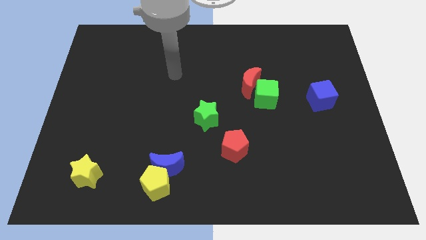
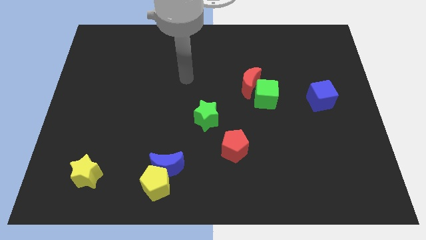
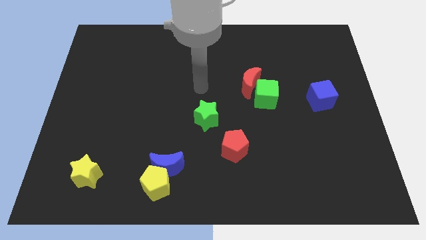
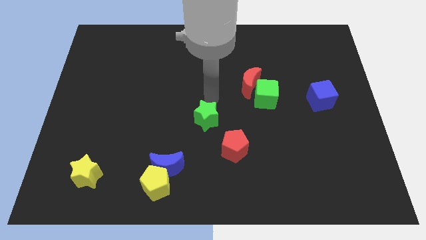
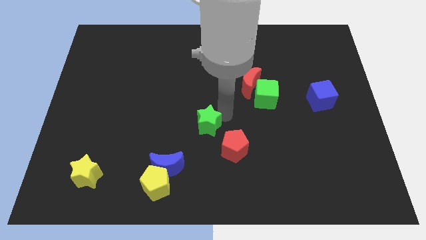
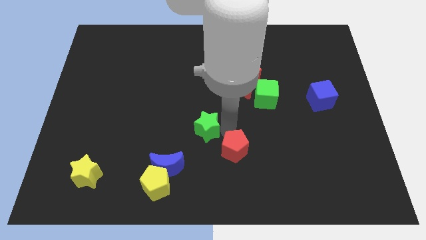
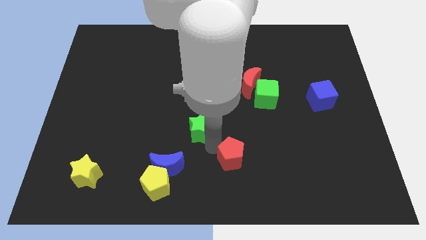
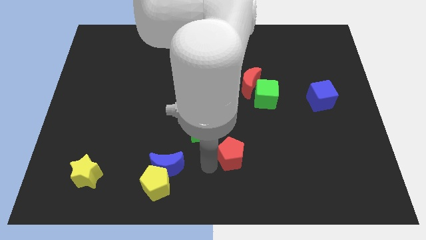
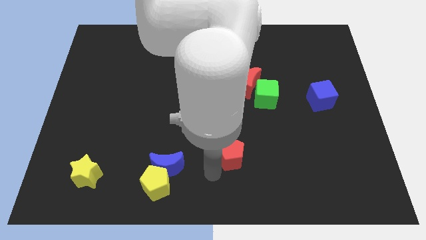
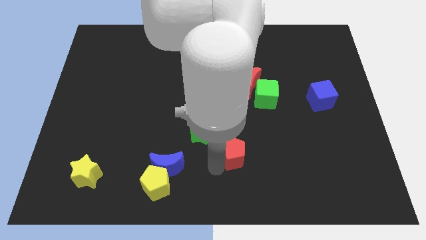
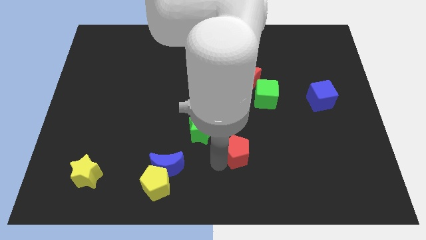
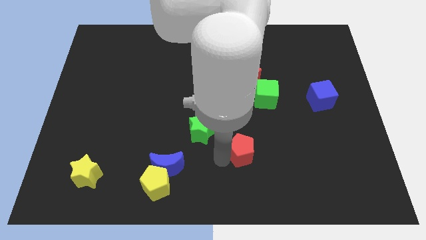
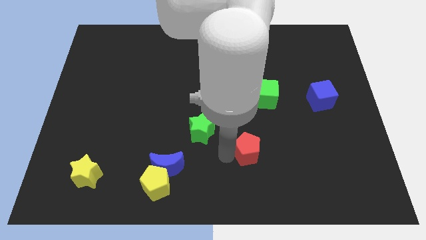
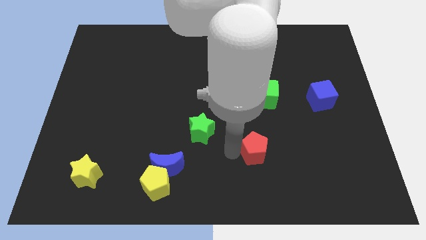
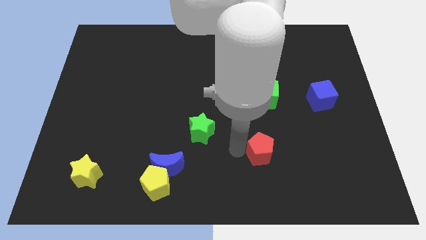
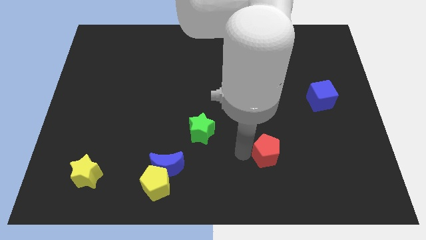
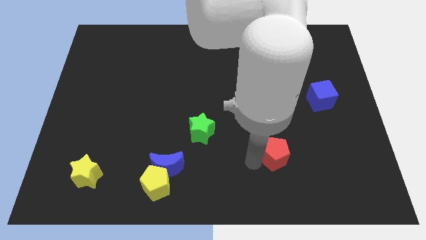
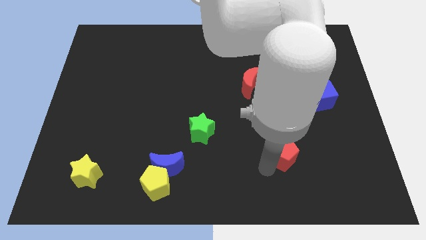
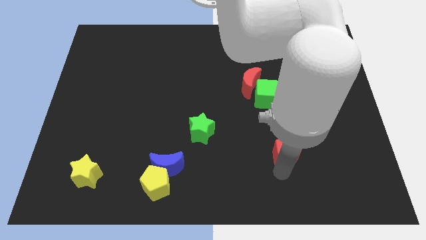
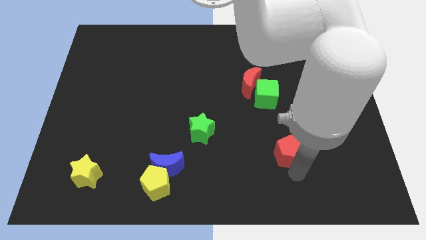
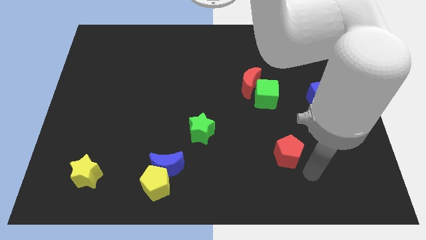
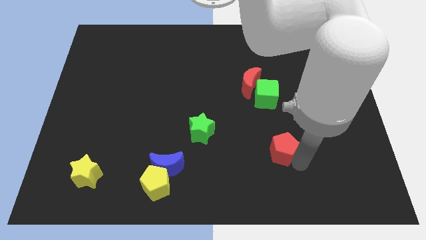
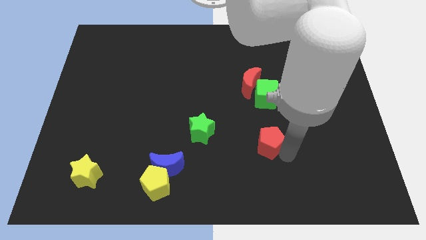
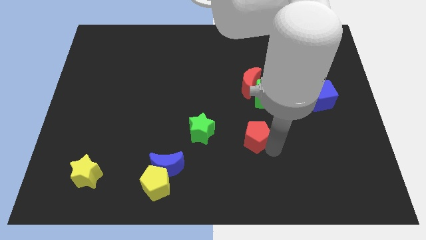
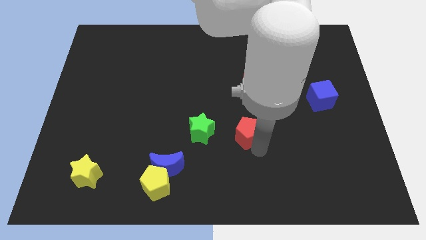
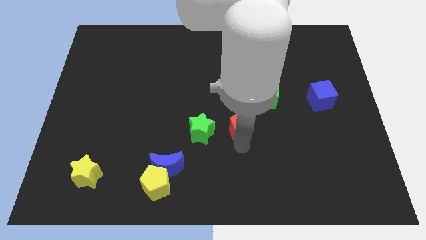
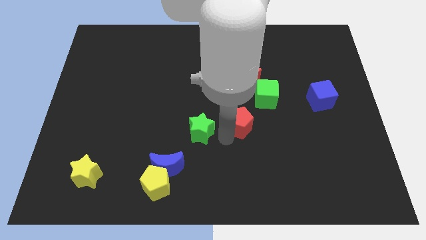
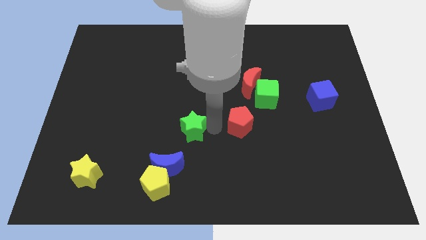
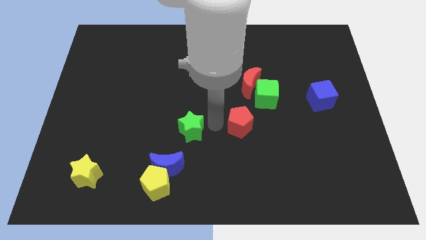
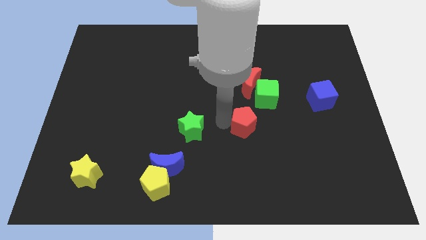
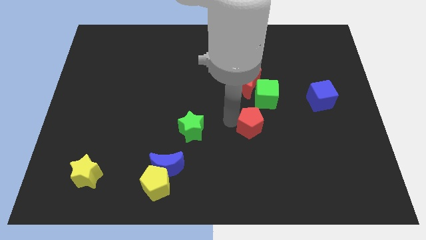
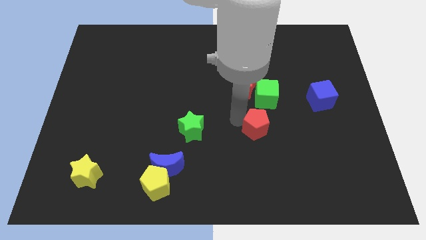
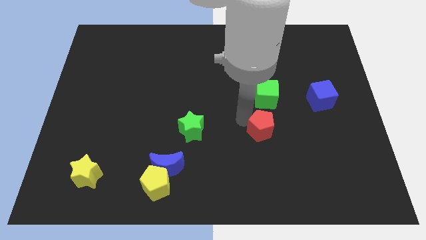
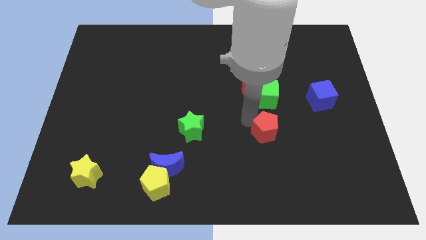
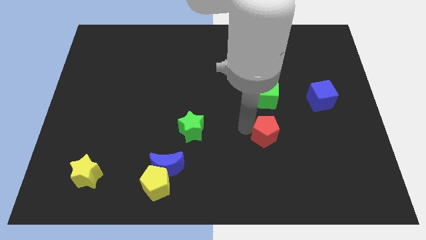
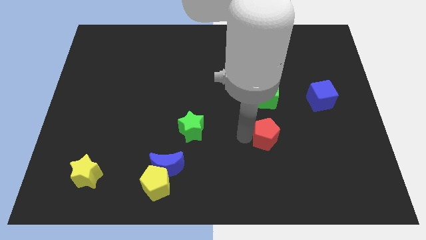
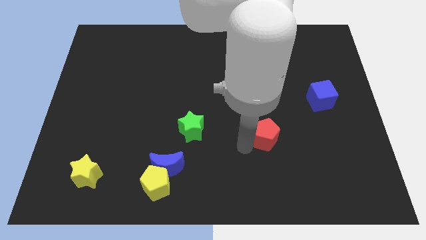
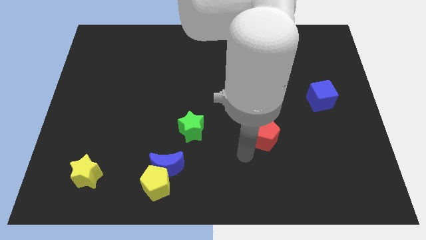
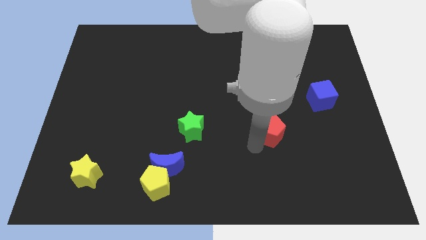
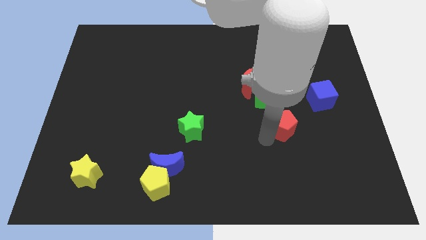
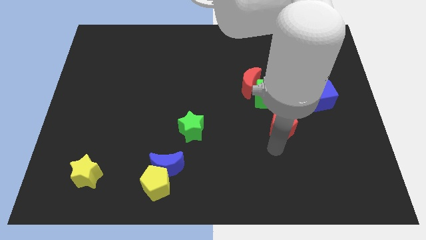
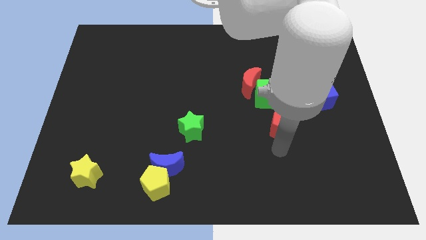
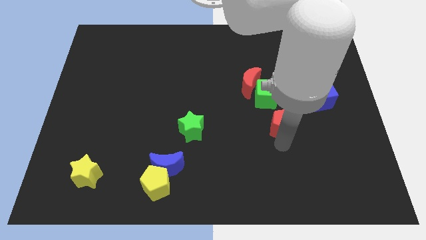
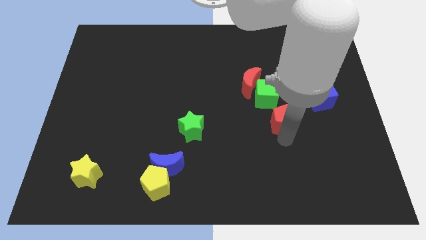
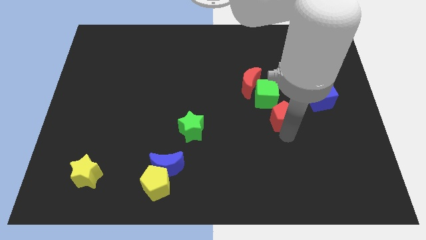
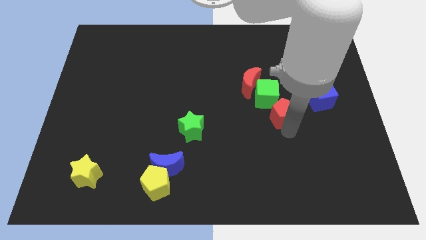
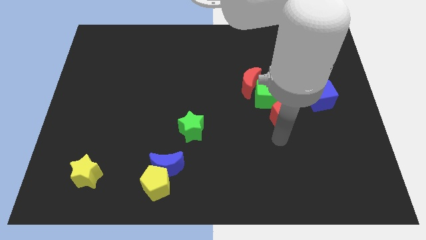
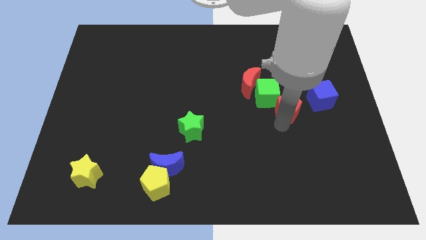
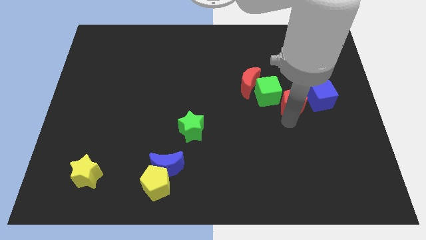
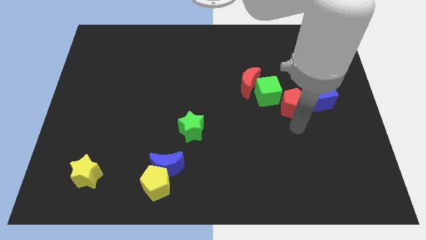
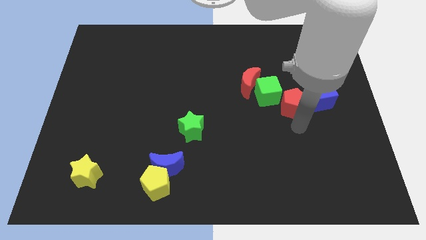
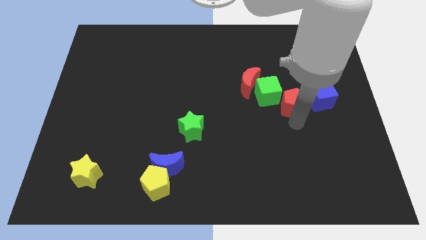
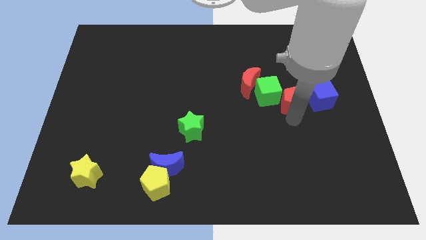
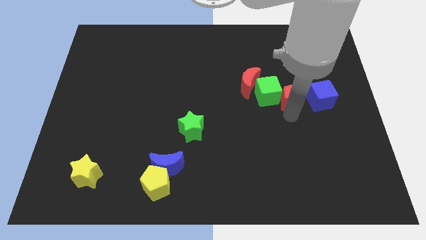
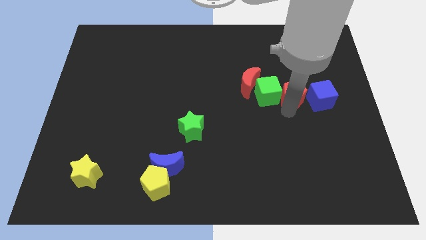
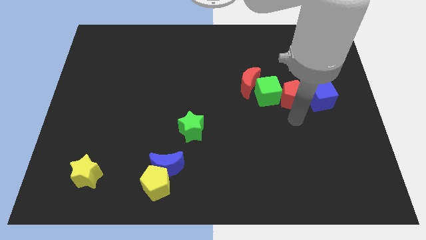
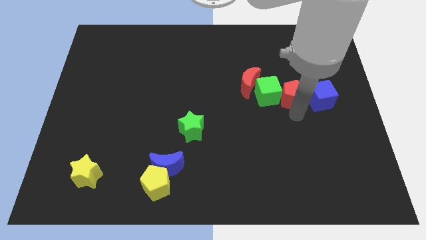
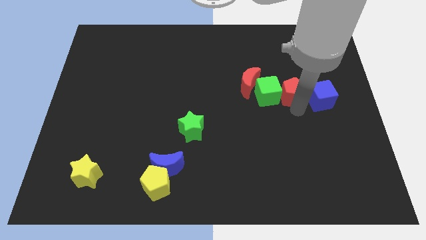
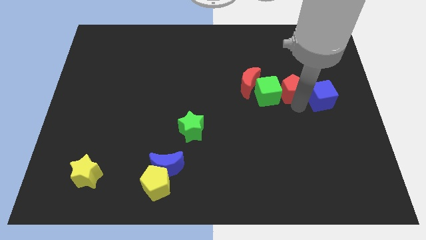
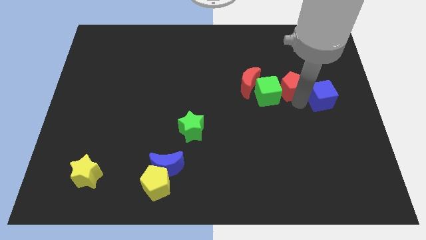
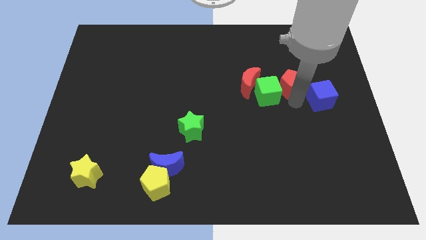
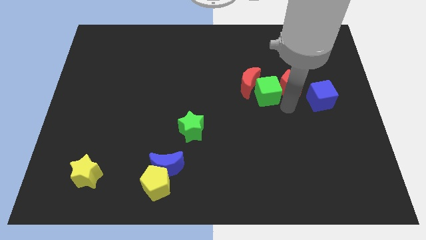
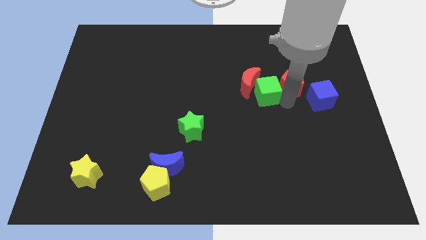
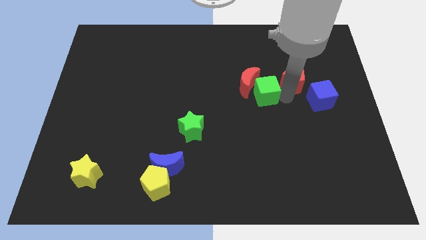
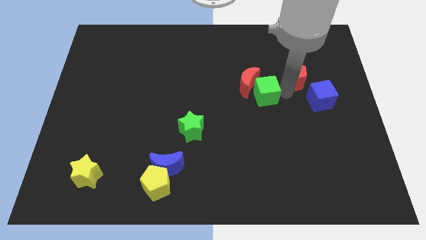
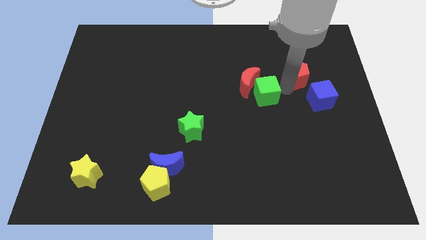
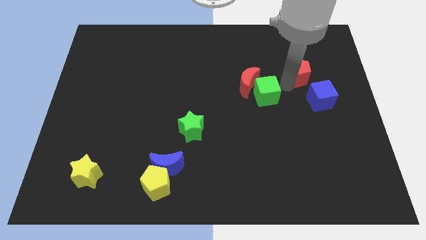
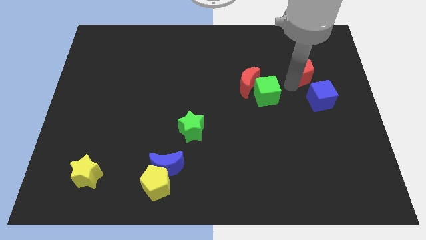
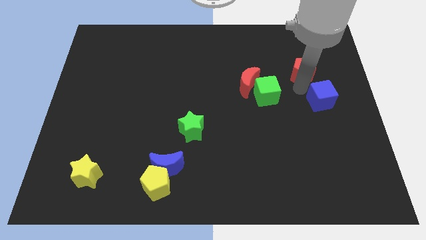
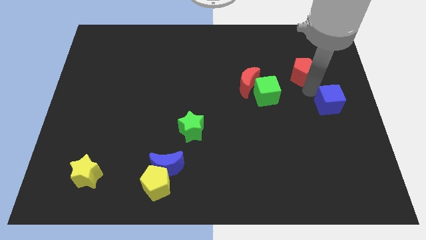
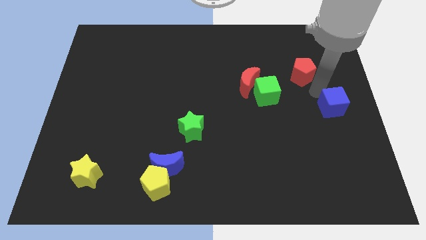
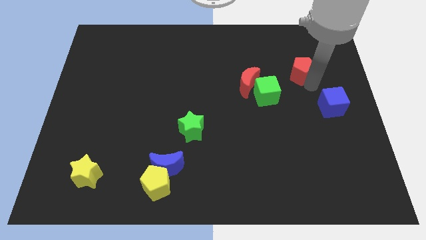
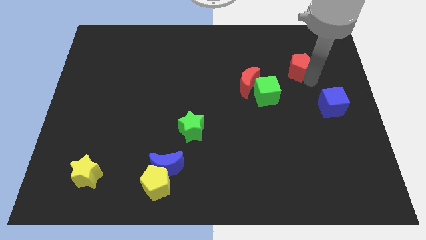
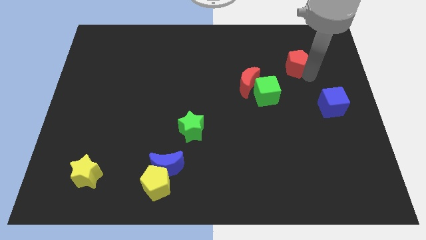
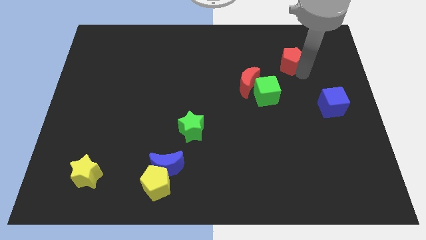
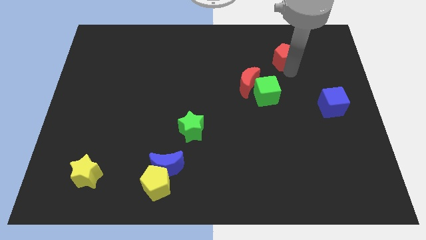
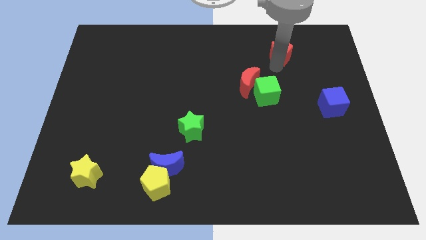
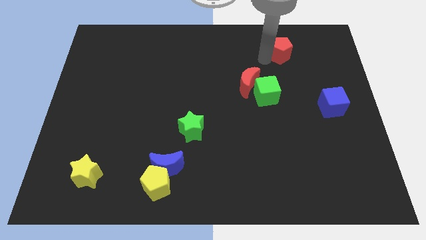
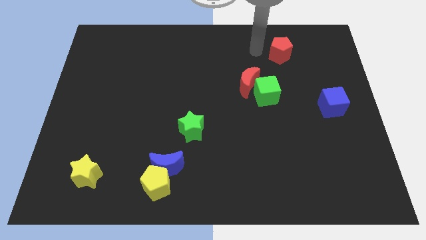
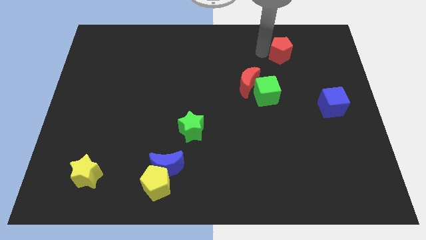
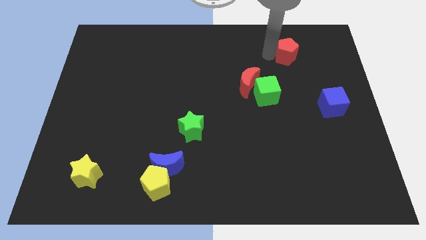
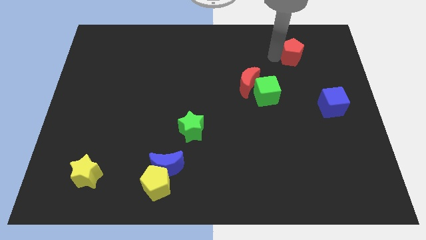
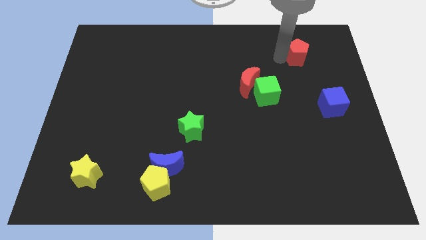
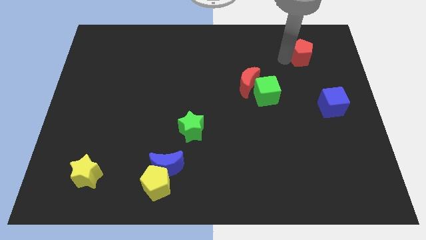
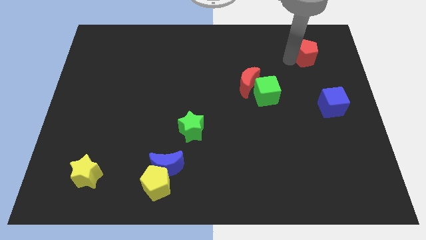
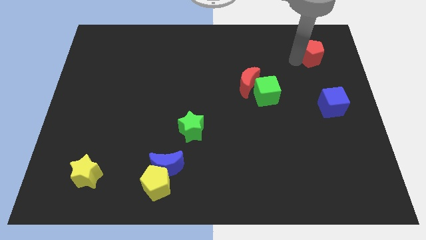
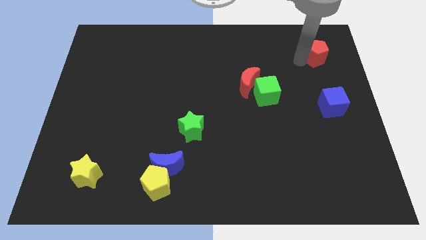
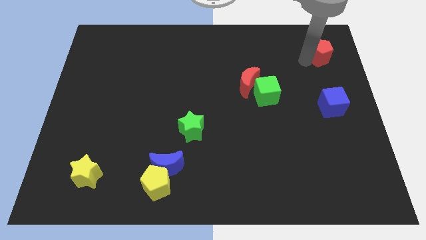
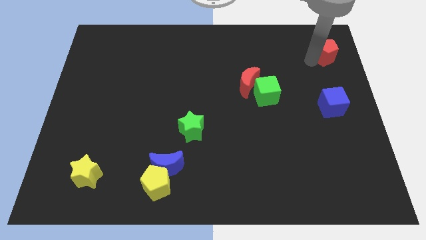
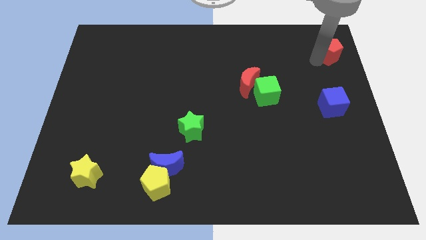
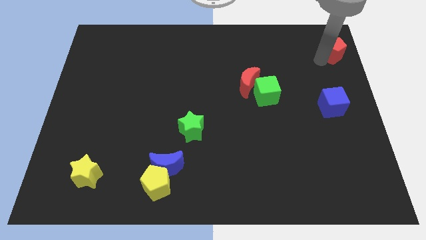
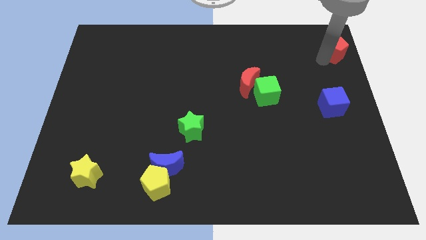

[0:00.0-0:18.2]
put the red pentagon to the top right corner
